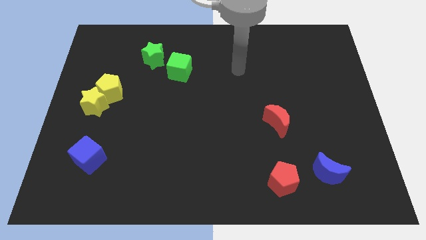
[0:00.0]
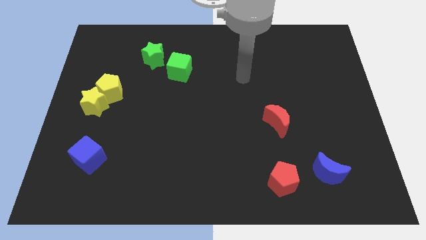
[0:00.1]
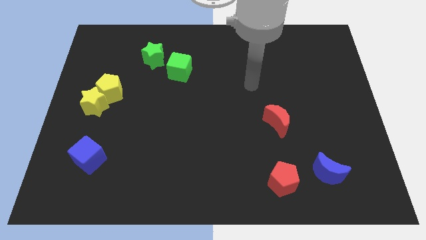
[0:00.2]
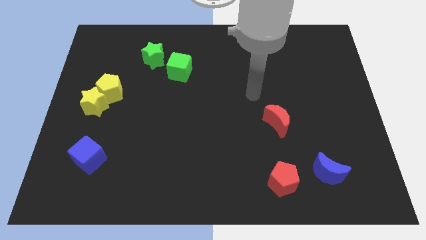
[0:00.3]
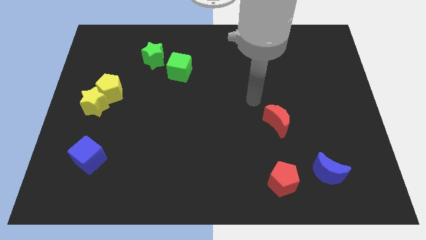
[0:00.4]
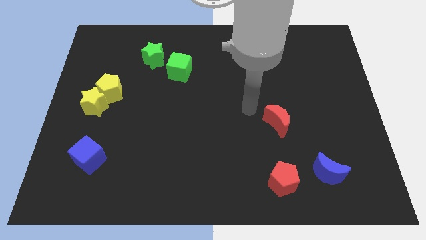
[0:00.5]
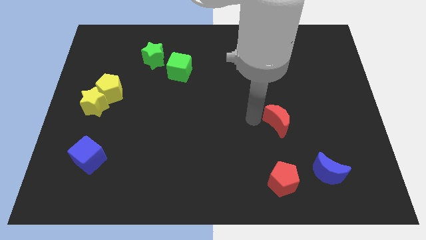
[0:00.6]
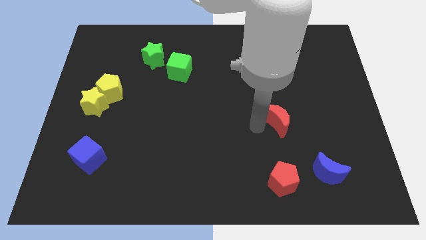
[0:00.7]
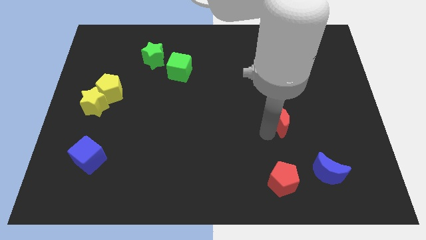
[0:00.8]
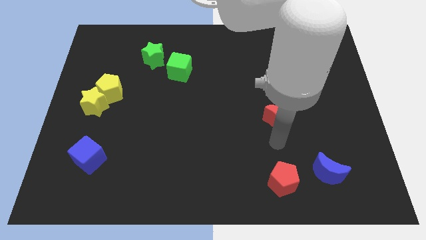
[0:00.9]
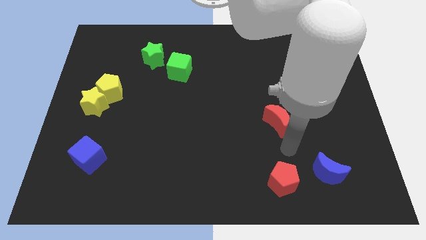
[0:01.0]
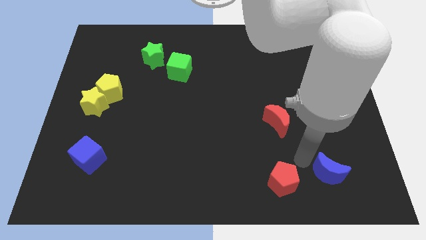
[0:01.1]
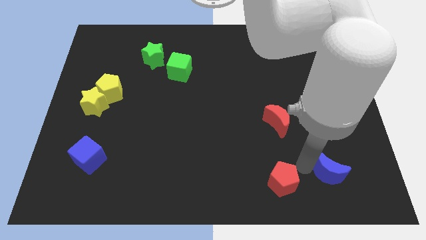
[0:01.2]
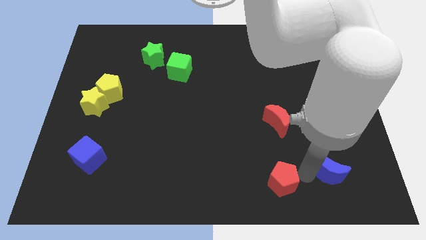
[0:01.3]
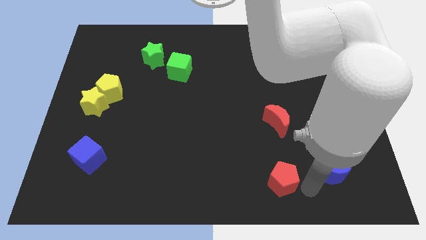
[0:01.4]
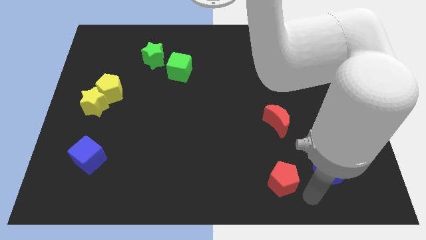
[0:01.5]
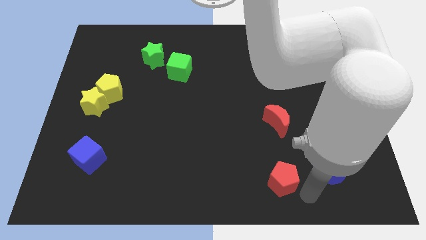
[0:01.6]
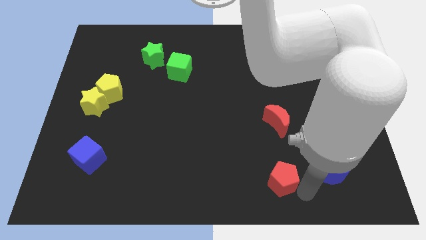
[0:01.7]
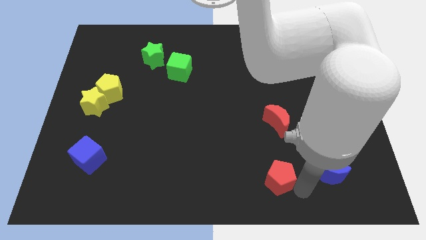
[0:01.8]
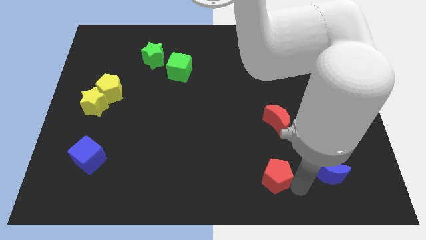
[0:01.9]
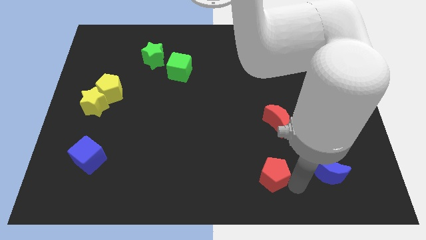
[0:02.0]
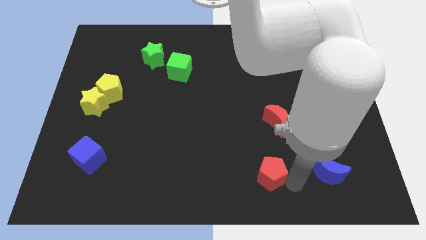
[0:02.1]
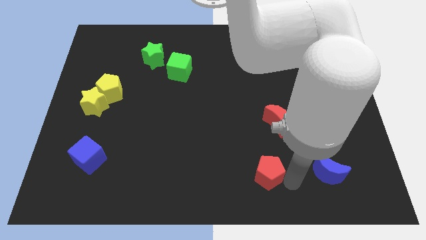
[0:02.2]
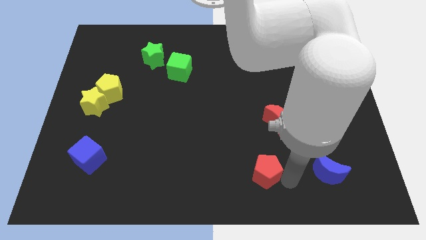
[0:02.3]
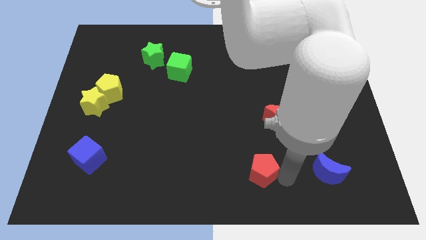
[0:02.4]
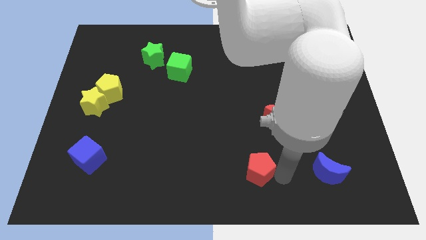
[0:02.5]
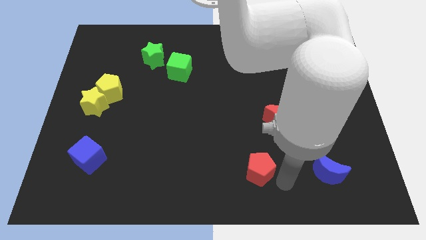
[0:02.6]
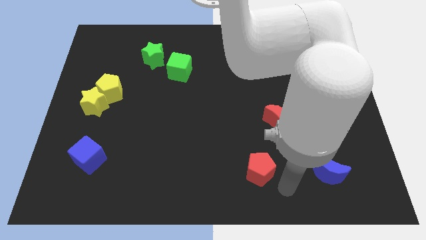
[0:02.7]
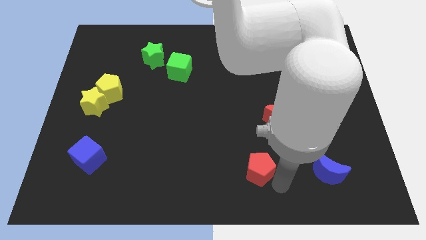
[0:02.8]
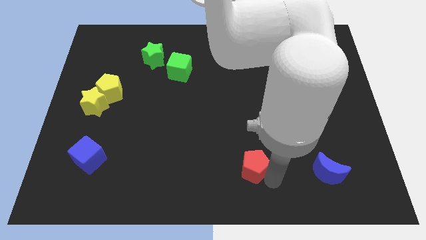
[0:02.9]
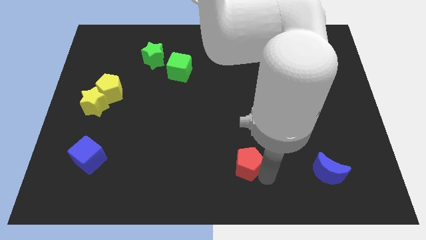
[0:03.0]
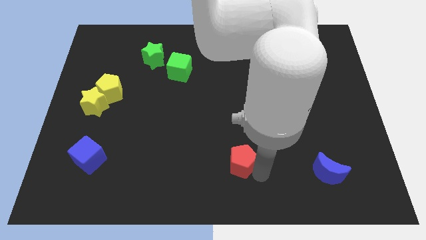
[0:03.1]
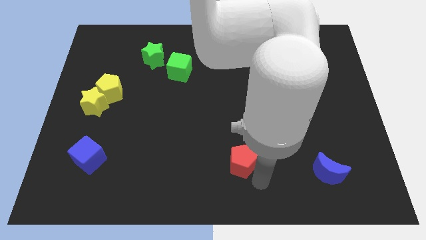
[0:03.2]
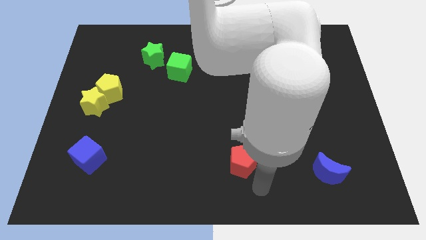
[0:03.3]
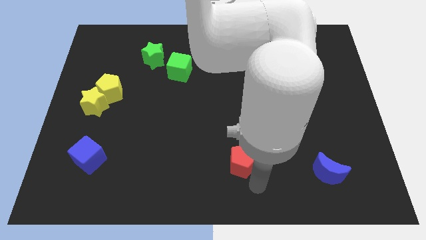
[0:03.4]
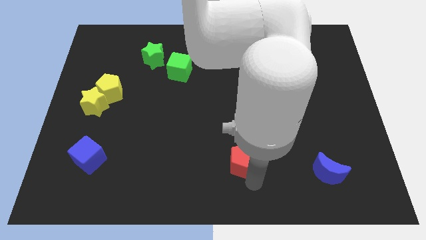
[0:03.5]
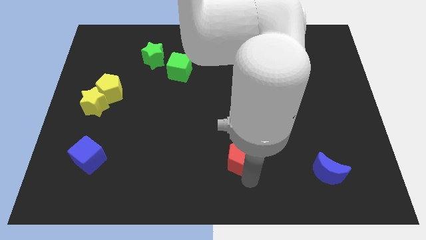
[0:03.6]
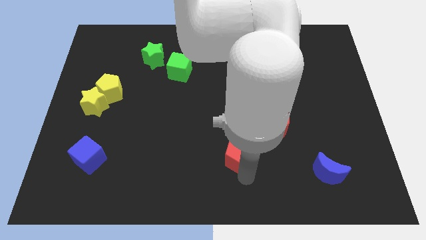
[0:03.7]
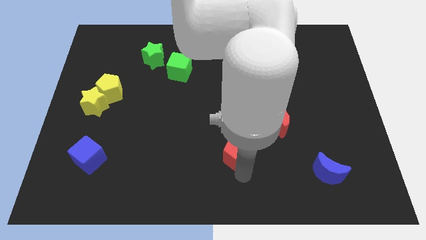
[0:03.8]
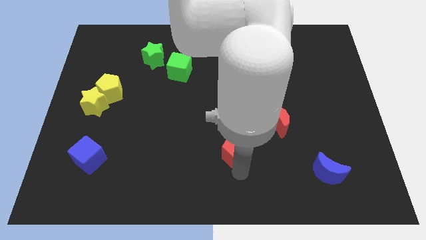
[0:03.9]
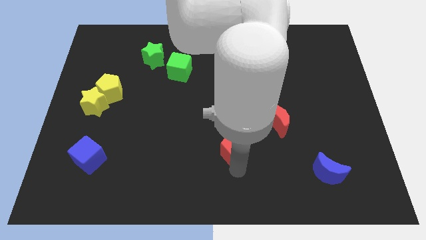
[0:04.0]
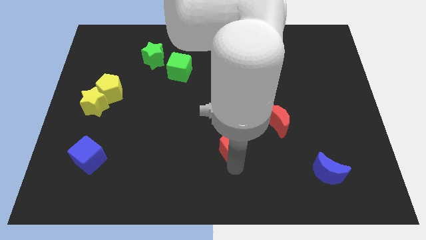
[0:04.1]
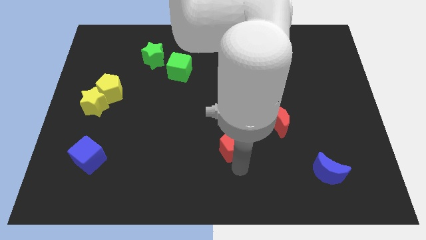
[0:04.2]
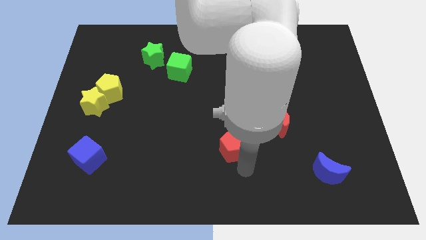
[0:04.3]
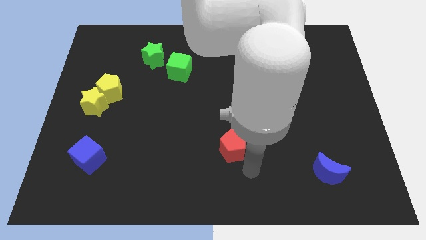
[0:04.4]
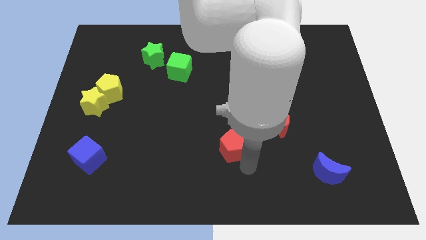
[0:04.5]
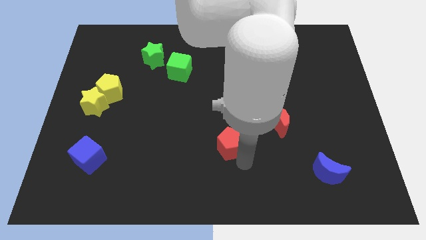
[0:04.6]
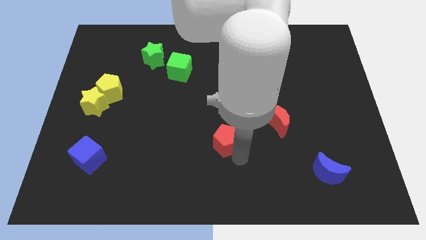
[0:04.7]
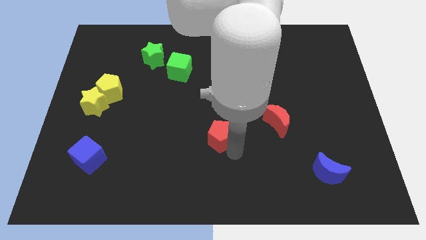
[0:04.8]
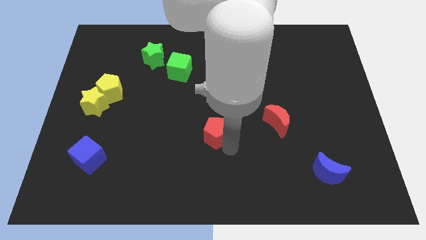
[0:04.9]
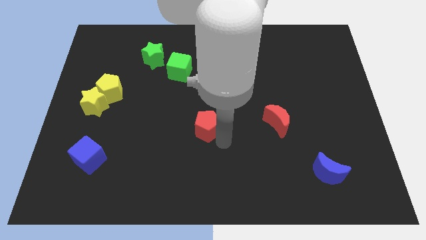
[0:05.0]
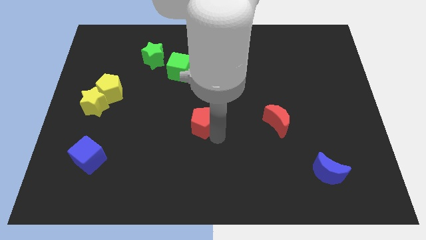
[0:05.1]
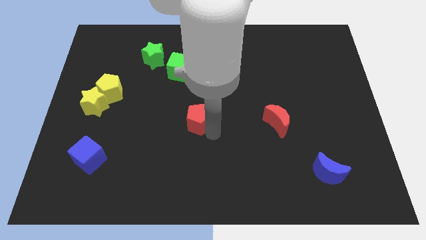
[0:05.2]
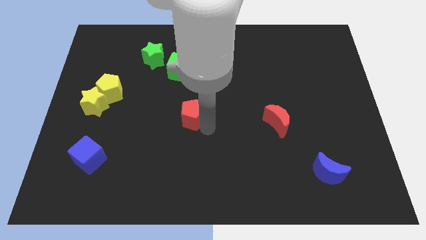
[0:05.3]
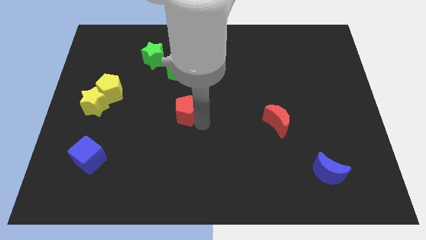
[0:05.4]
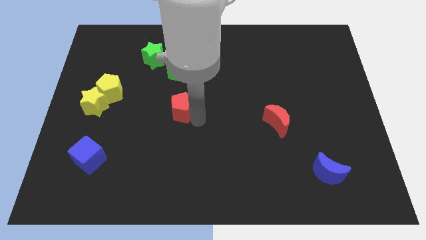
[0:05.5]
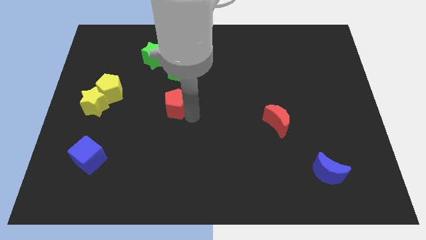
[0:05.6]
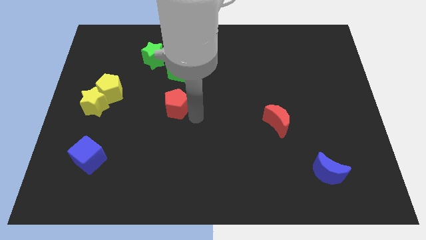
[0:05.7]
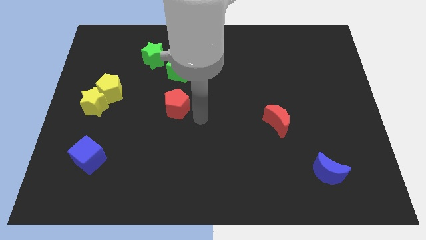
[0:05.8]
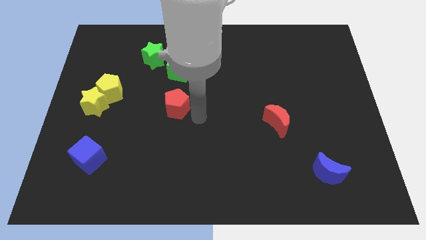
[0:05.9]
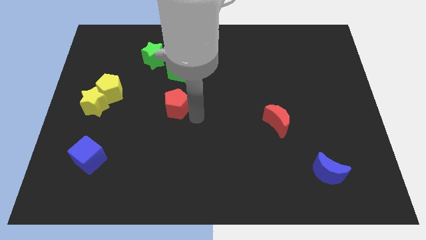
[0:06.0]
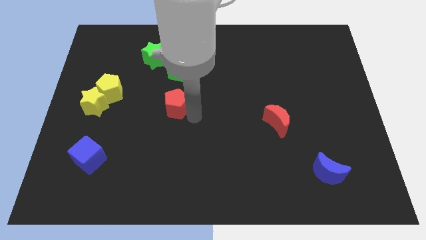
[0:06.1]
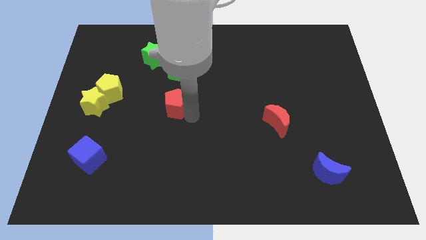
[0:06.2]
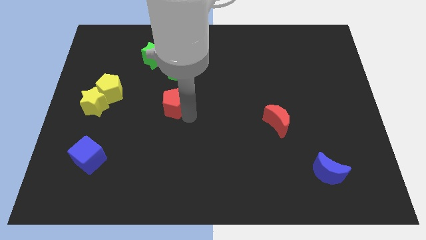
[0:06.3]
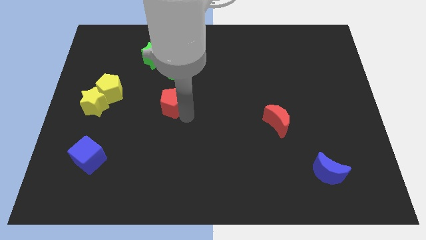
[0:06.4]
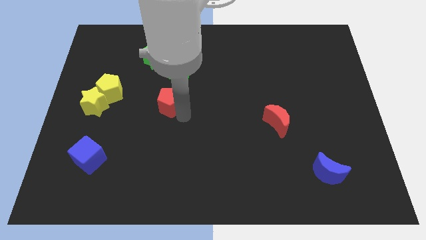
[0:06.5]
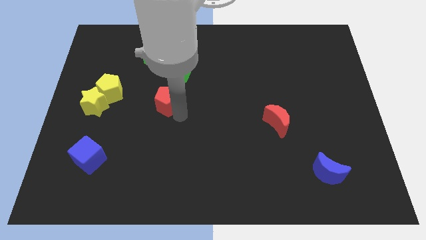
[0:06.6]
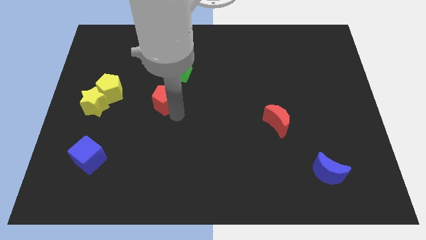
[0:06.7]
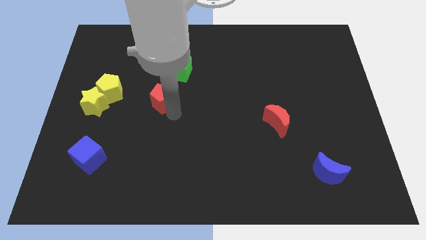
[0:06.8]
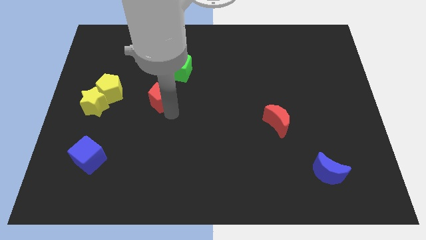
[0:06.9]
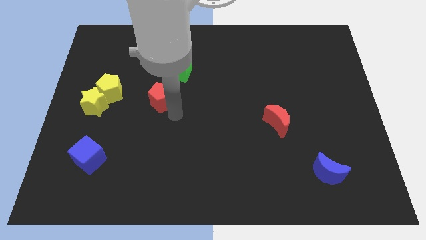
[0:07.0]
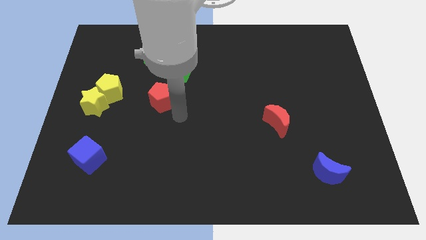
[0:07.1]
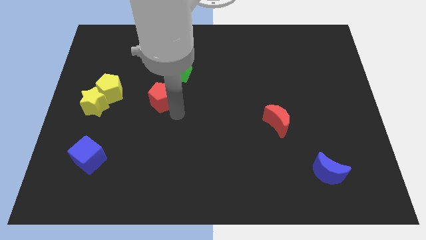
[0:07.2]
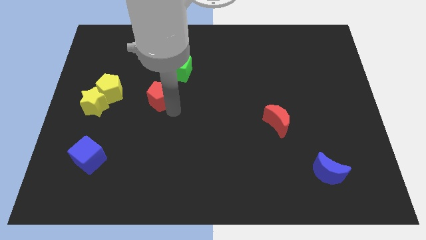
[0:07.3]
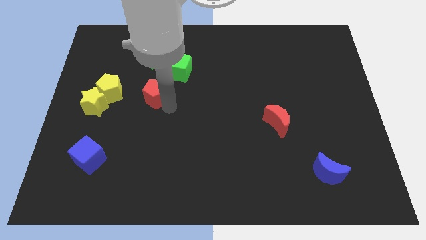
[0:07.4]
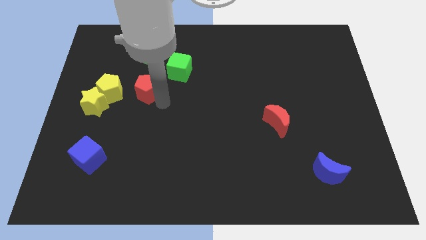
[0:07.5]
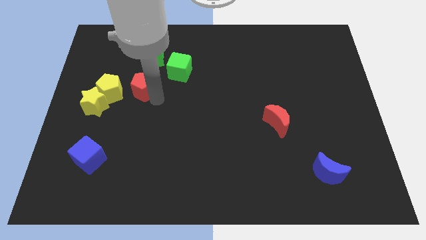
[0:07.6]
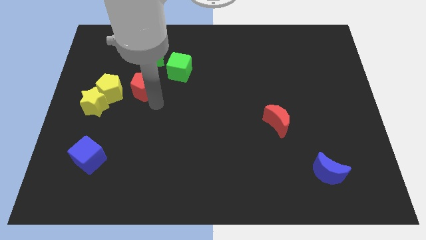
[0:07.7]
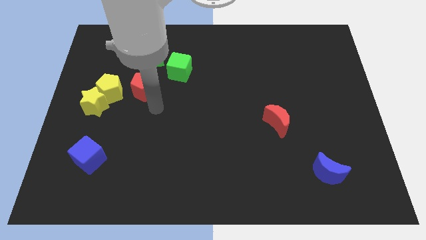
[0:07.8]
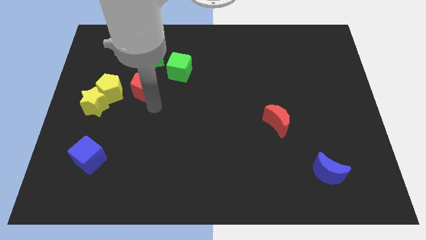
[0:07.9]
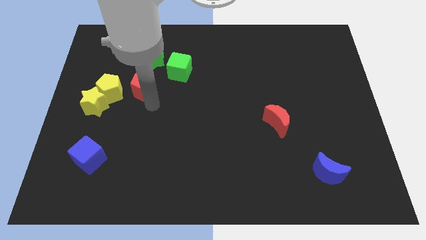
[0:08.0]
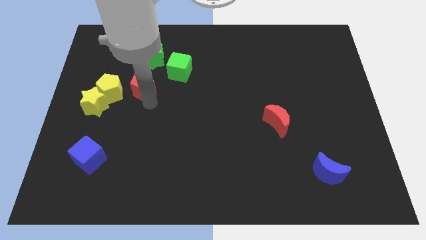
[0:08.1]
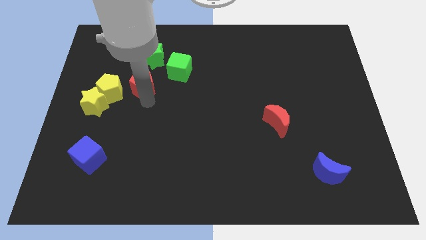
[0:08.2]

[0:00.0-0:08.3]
push the red pentagon to the top right side of the yellow pentagon

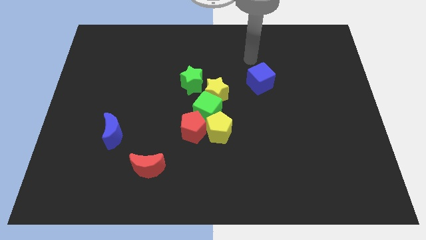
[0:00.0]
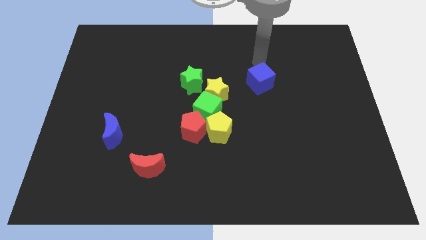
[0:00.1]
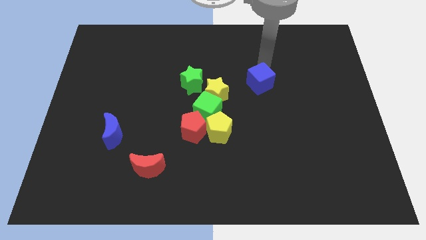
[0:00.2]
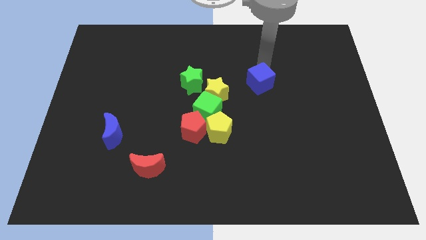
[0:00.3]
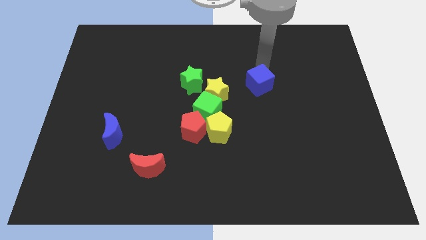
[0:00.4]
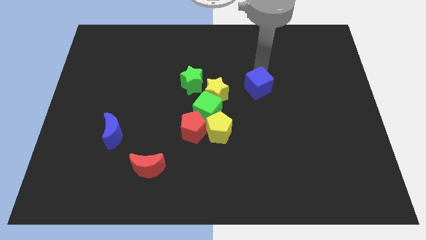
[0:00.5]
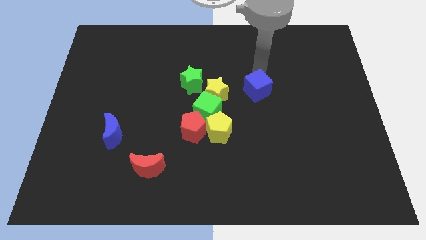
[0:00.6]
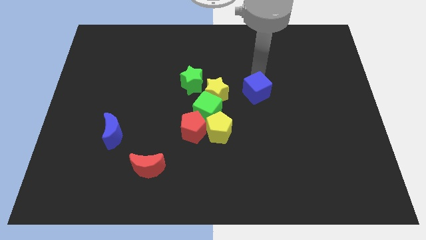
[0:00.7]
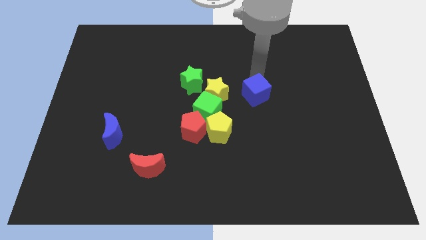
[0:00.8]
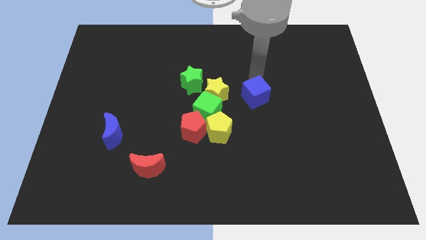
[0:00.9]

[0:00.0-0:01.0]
move the blue cube to the right side of the green cube
